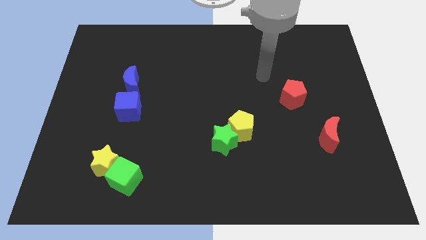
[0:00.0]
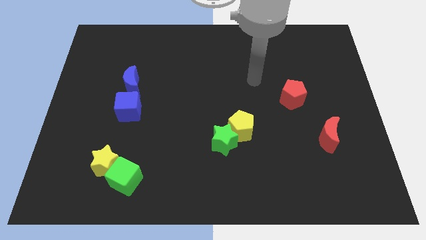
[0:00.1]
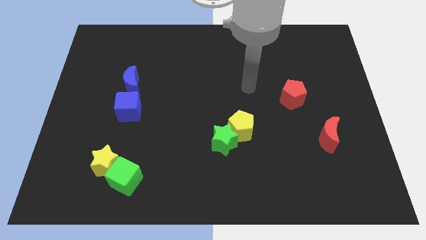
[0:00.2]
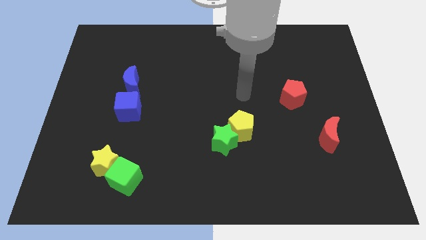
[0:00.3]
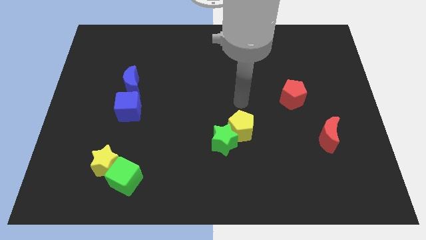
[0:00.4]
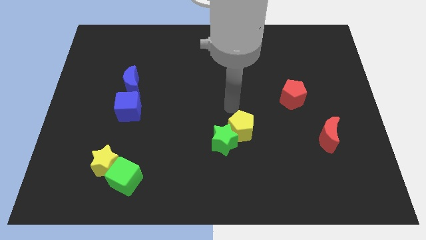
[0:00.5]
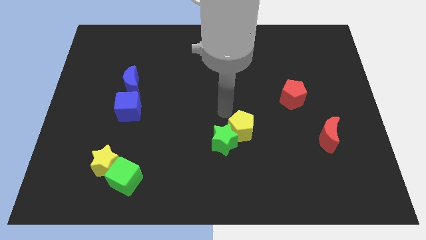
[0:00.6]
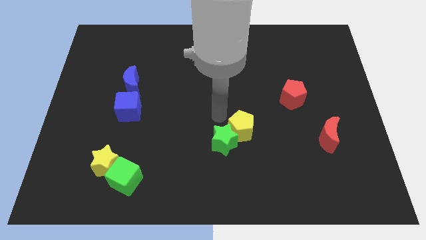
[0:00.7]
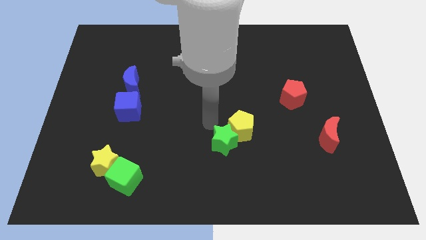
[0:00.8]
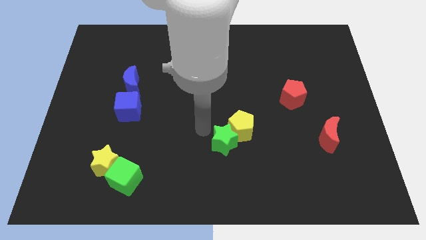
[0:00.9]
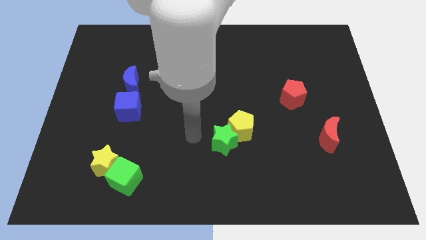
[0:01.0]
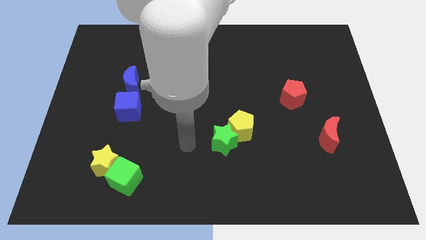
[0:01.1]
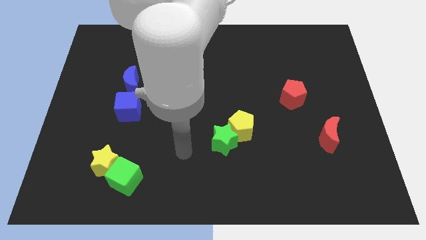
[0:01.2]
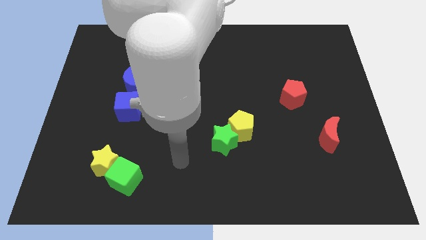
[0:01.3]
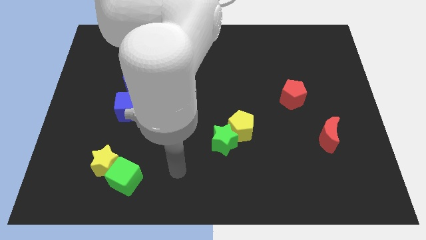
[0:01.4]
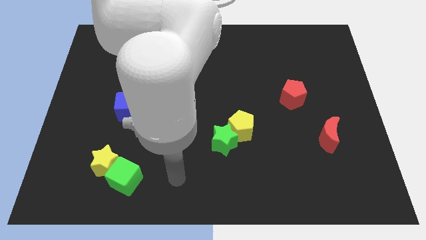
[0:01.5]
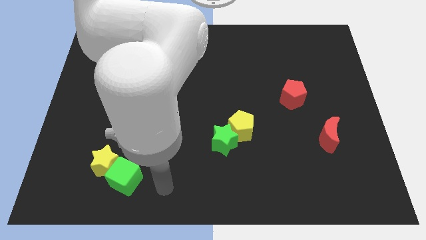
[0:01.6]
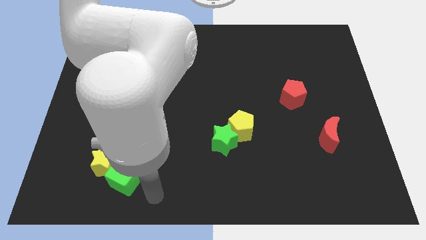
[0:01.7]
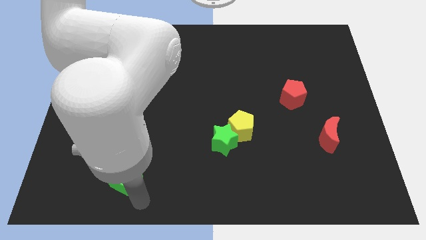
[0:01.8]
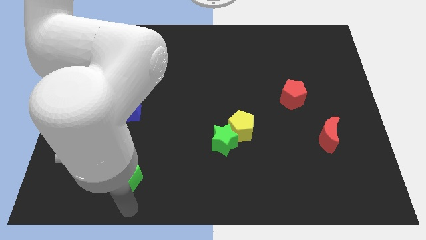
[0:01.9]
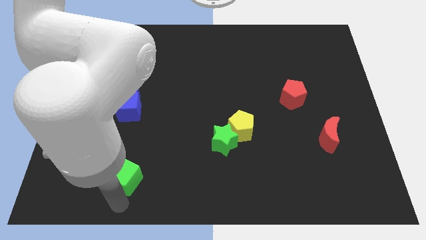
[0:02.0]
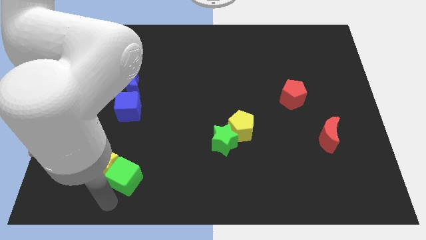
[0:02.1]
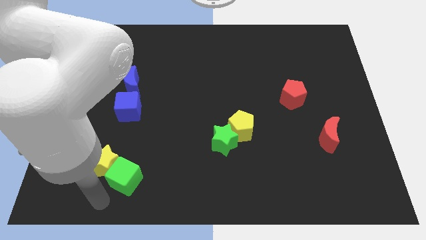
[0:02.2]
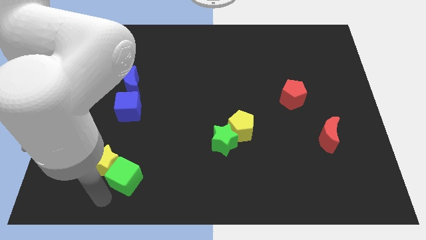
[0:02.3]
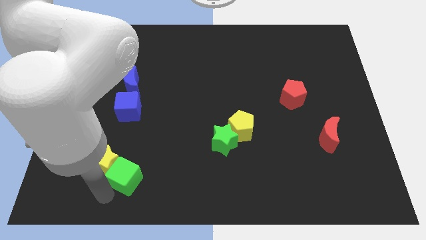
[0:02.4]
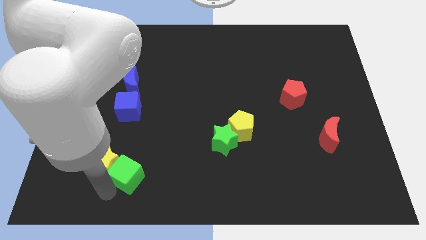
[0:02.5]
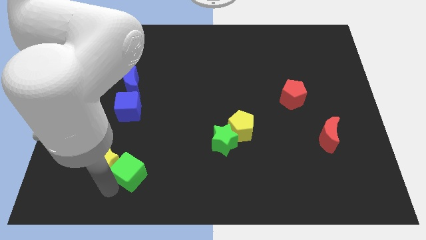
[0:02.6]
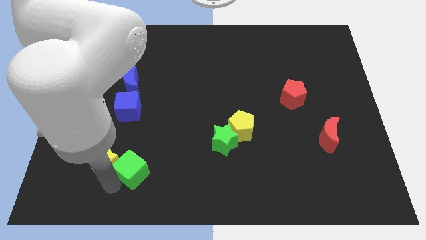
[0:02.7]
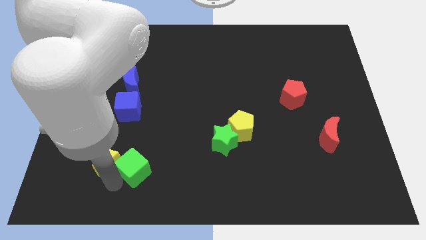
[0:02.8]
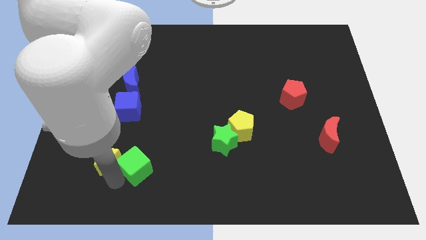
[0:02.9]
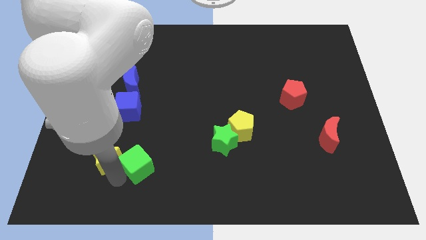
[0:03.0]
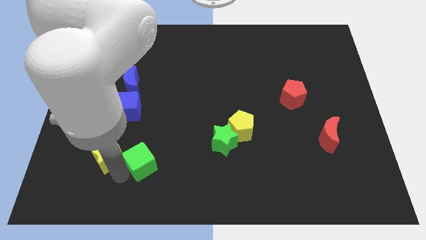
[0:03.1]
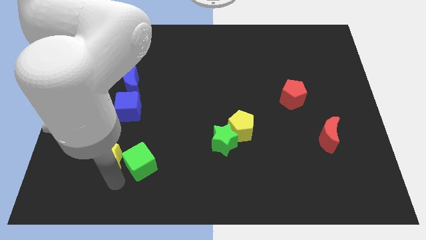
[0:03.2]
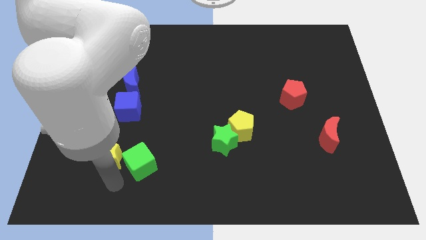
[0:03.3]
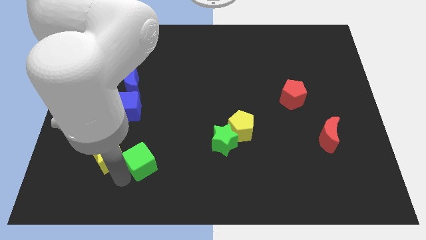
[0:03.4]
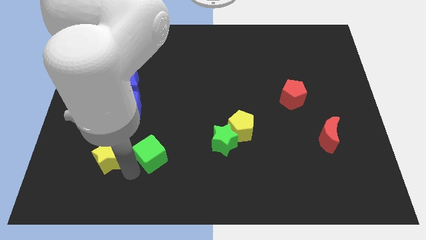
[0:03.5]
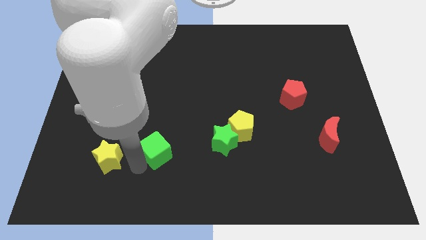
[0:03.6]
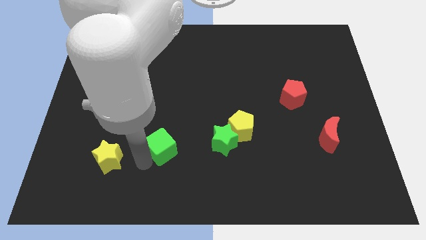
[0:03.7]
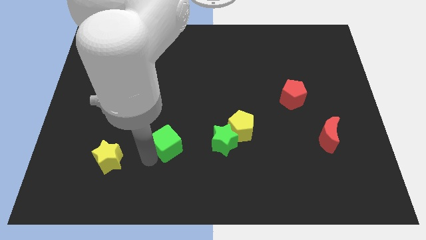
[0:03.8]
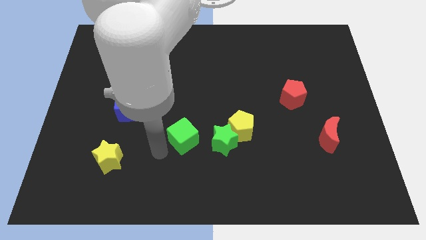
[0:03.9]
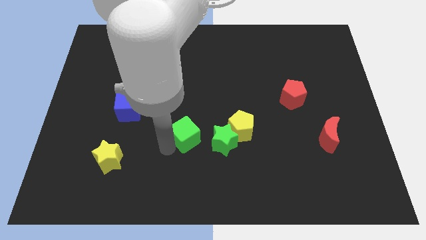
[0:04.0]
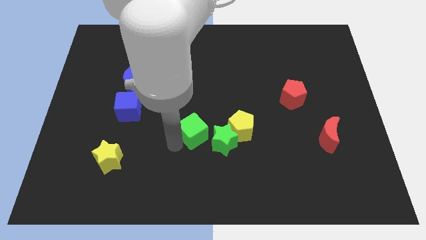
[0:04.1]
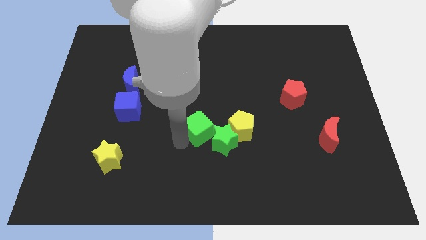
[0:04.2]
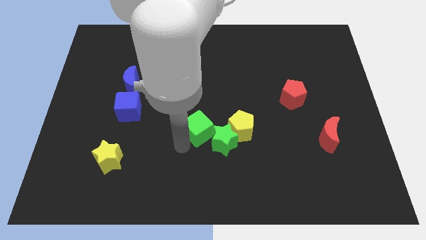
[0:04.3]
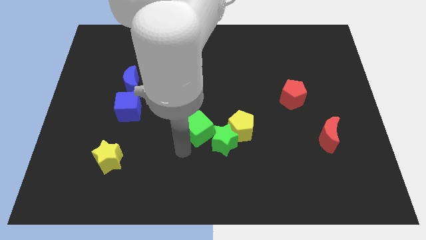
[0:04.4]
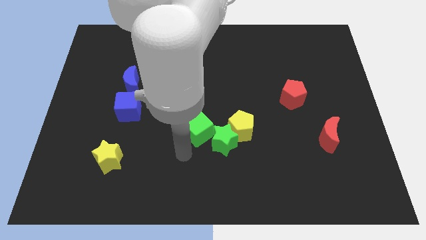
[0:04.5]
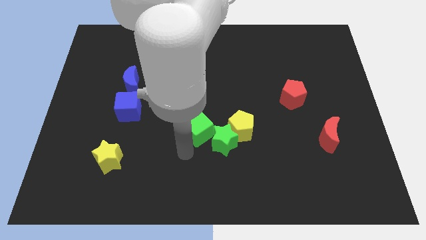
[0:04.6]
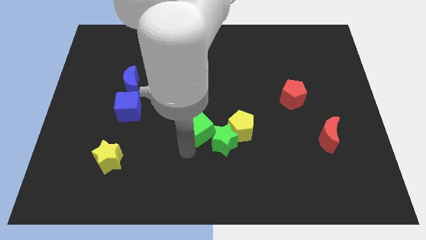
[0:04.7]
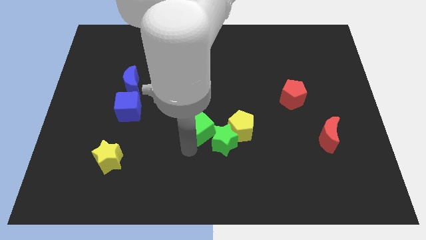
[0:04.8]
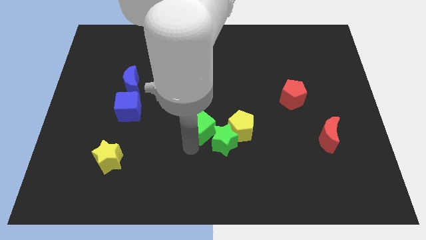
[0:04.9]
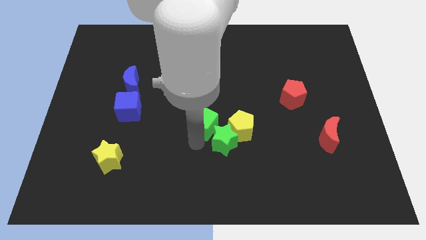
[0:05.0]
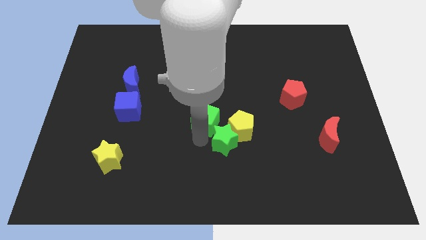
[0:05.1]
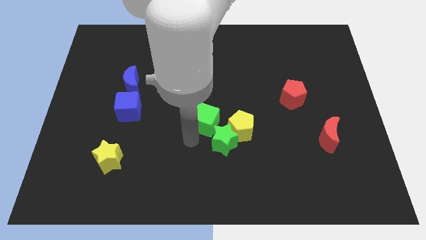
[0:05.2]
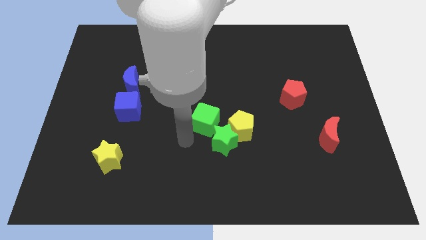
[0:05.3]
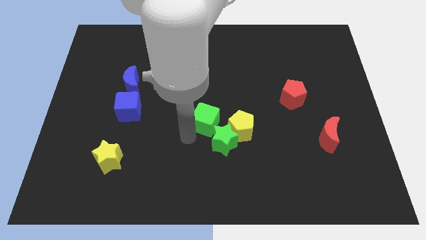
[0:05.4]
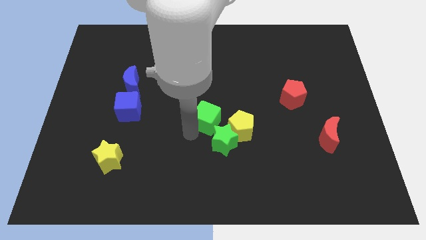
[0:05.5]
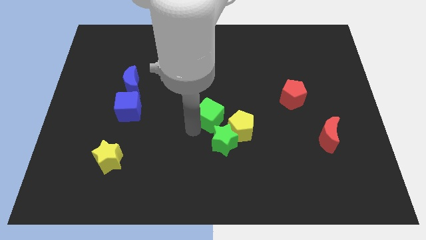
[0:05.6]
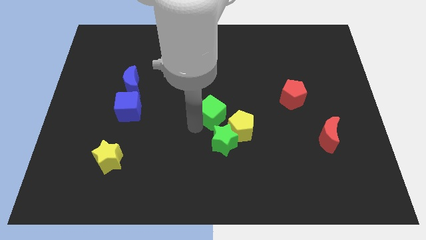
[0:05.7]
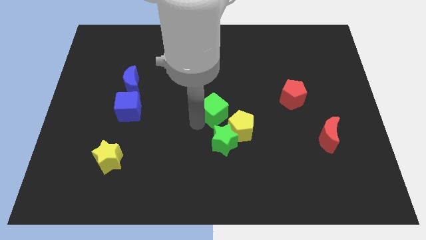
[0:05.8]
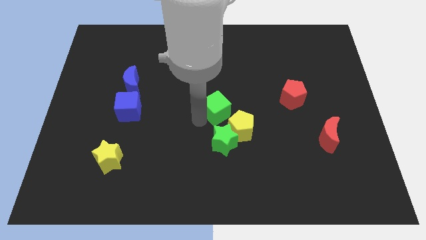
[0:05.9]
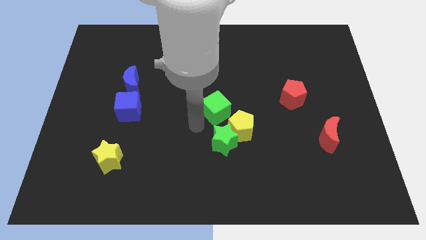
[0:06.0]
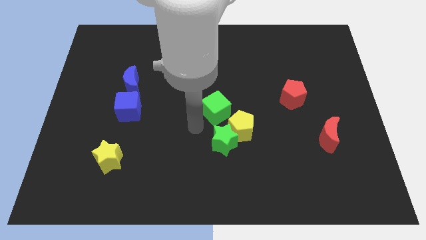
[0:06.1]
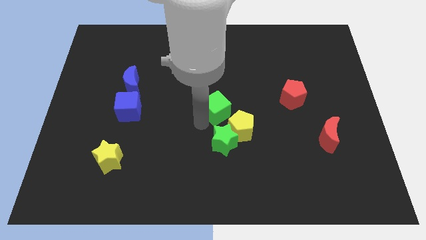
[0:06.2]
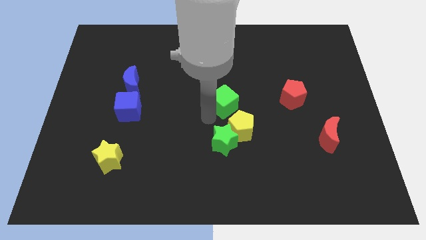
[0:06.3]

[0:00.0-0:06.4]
move the green cube above the yellow pentagon
